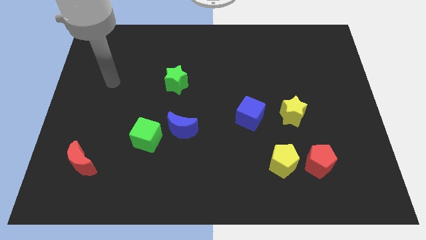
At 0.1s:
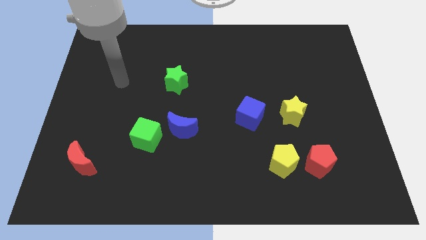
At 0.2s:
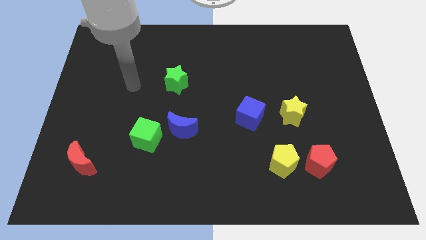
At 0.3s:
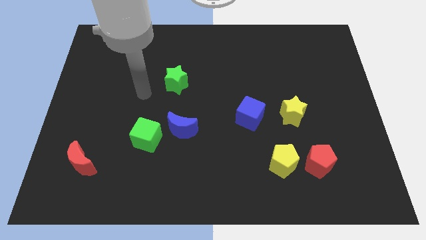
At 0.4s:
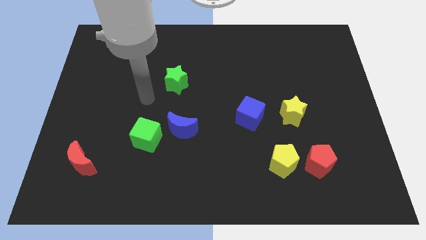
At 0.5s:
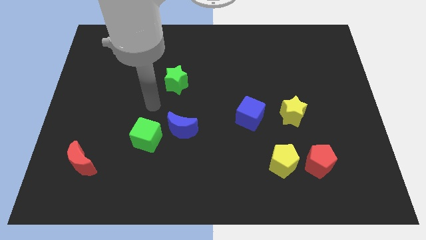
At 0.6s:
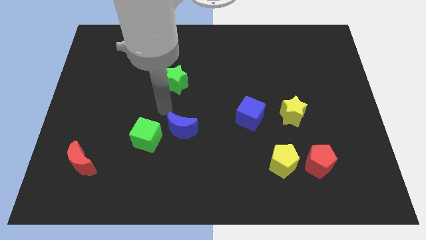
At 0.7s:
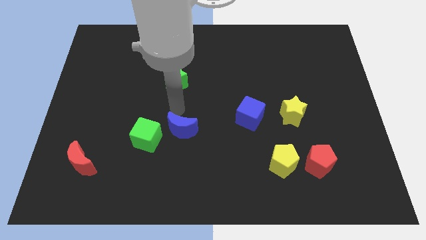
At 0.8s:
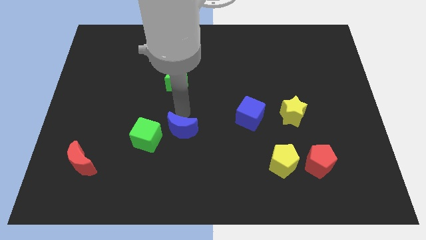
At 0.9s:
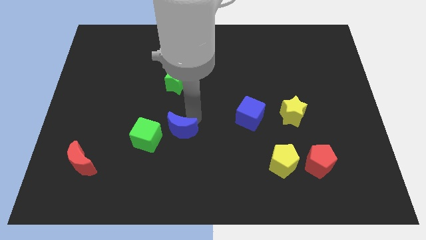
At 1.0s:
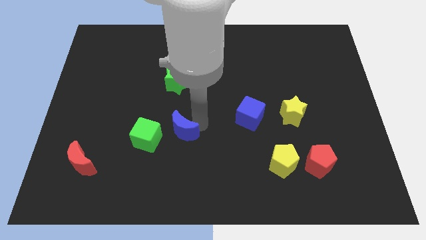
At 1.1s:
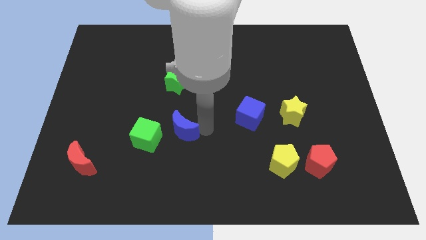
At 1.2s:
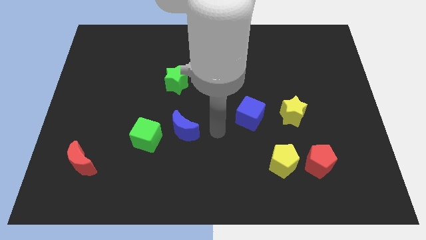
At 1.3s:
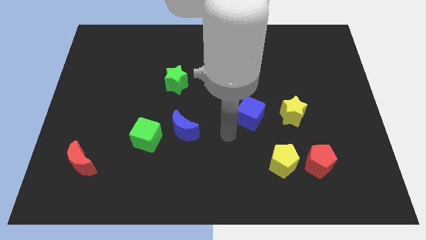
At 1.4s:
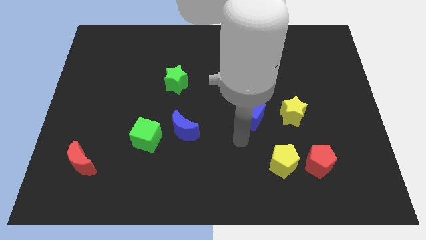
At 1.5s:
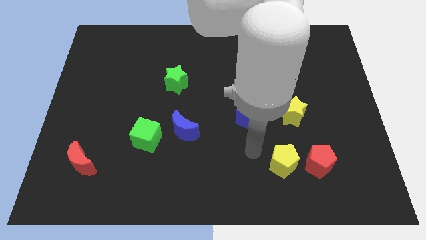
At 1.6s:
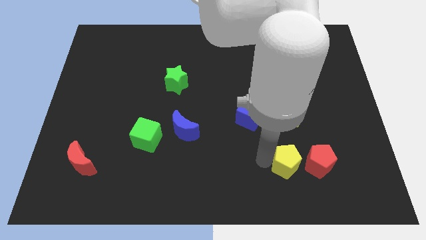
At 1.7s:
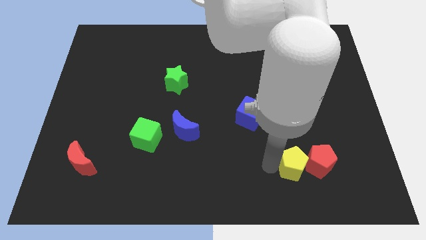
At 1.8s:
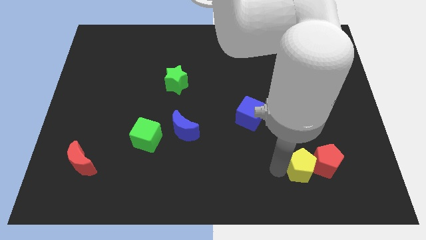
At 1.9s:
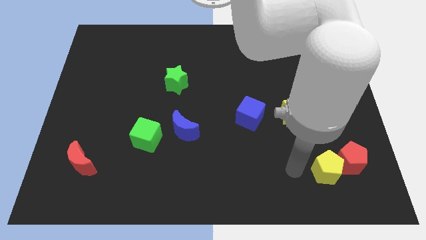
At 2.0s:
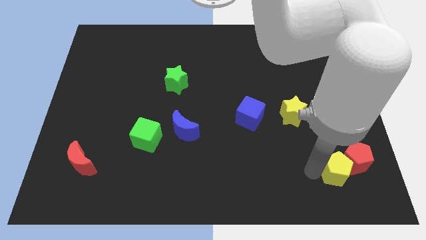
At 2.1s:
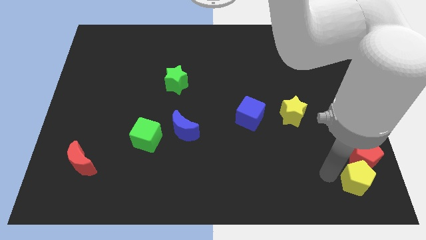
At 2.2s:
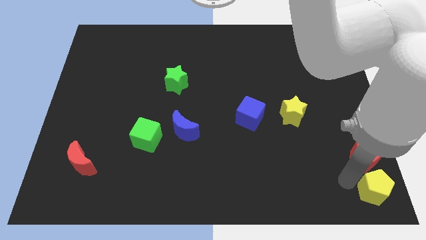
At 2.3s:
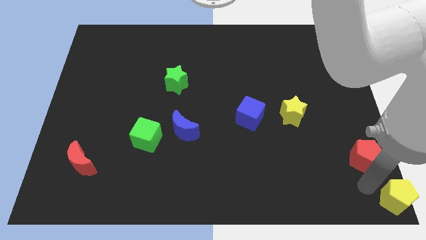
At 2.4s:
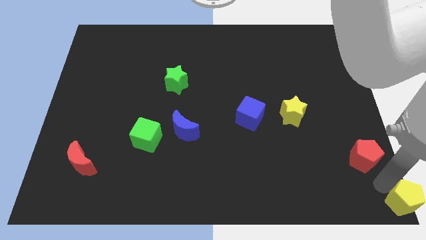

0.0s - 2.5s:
pull the red pentagon apart from the yellow pentagon

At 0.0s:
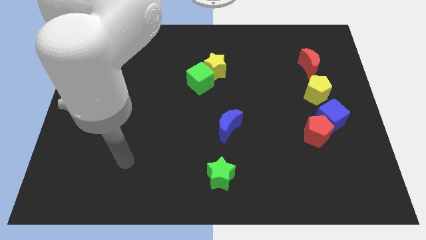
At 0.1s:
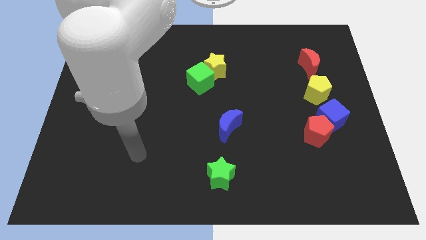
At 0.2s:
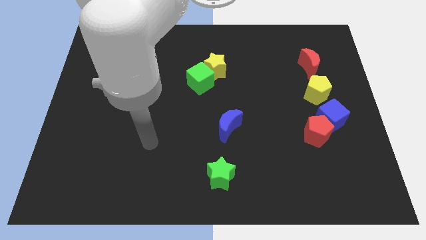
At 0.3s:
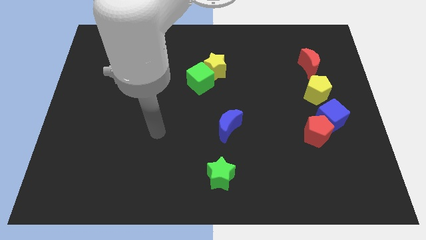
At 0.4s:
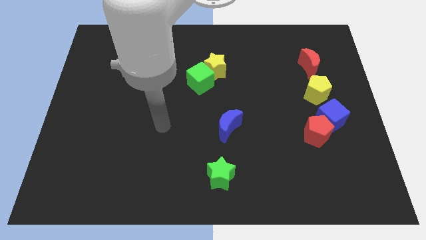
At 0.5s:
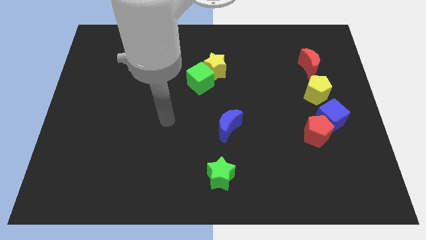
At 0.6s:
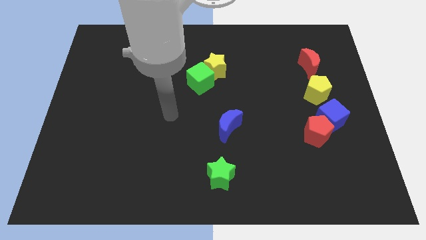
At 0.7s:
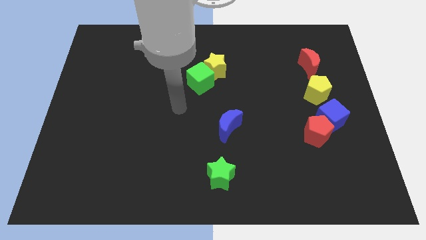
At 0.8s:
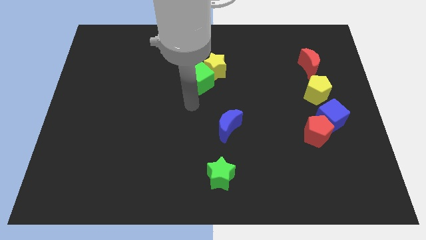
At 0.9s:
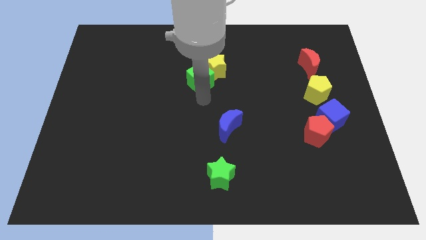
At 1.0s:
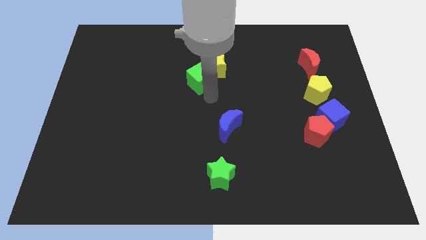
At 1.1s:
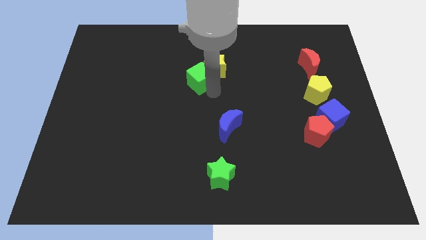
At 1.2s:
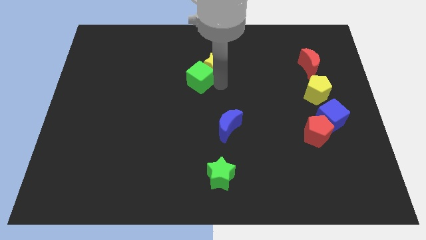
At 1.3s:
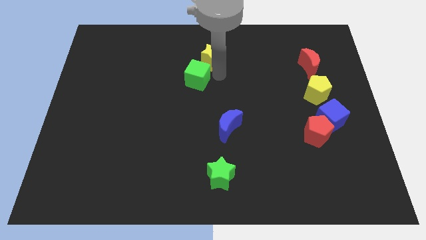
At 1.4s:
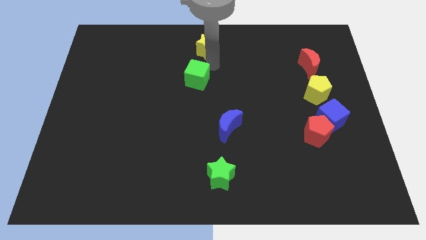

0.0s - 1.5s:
pull the green cube apart from the yellow star

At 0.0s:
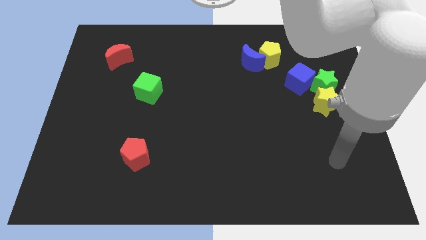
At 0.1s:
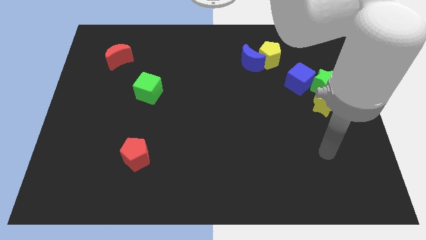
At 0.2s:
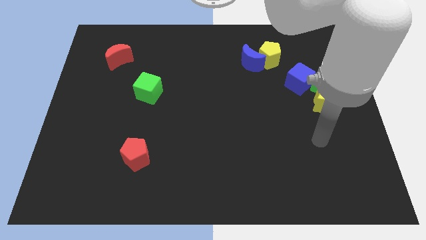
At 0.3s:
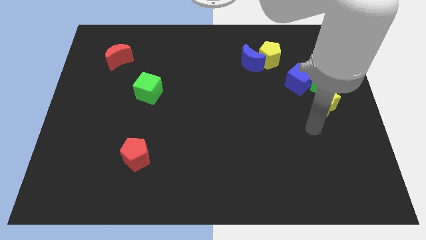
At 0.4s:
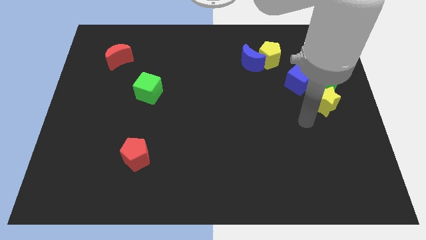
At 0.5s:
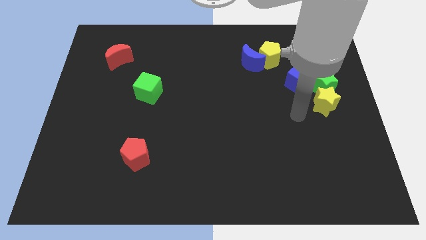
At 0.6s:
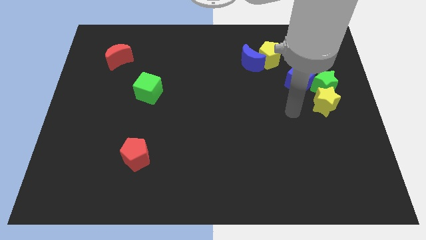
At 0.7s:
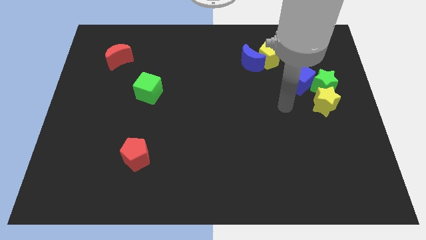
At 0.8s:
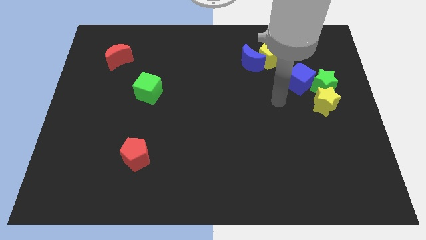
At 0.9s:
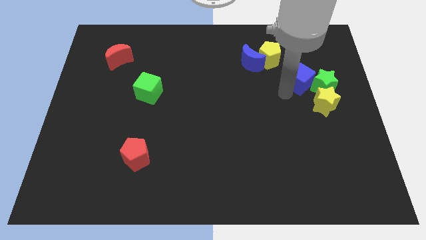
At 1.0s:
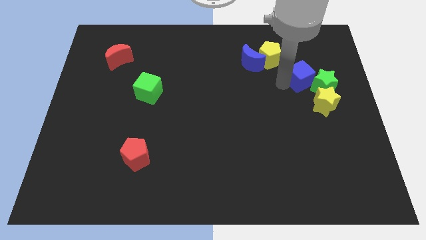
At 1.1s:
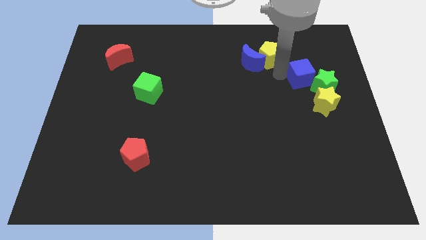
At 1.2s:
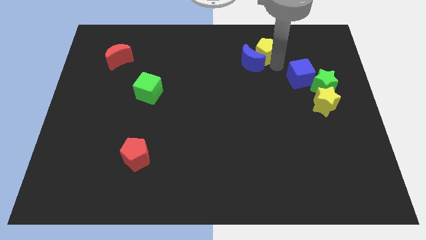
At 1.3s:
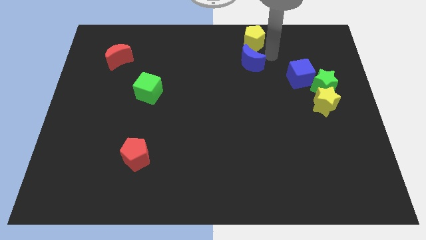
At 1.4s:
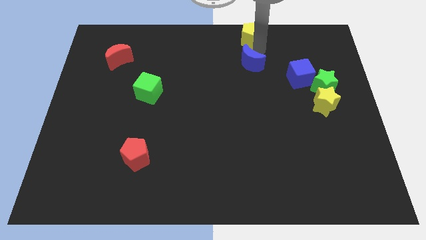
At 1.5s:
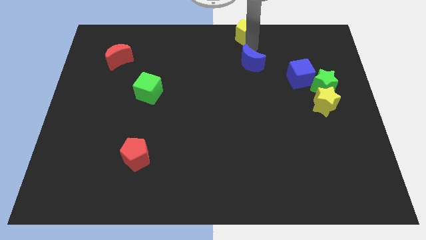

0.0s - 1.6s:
move the blue moon away from the yellow pentagon

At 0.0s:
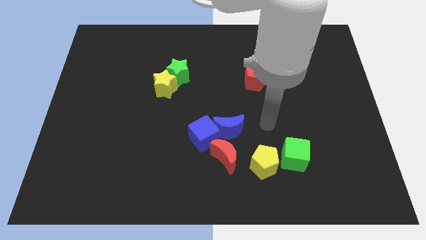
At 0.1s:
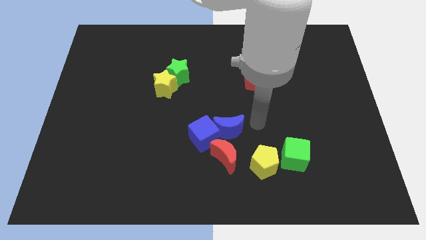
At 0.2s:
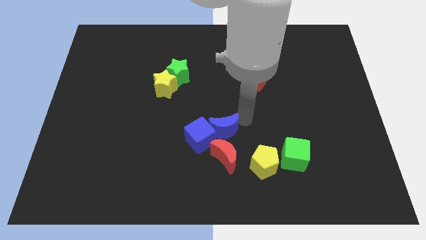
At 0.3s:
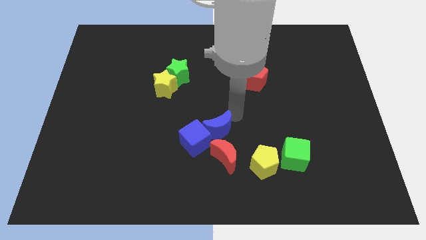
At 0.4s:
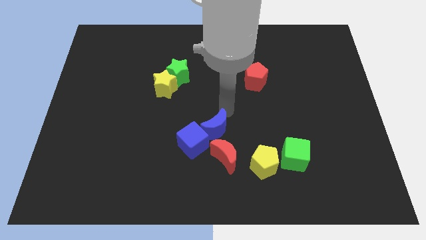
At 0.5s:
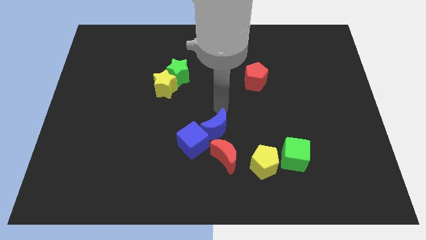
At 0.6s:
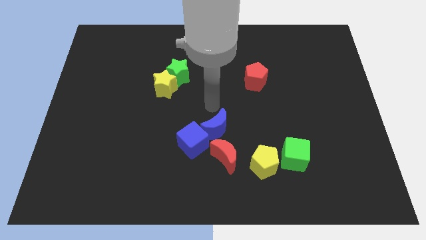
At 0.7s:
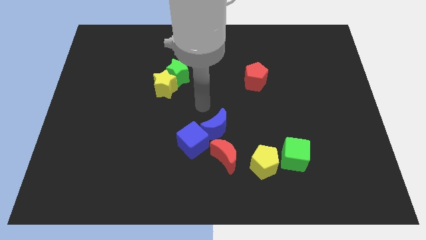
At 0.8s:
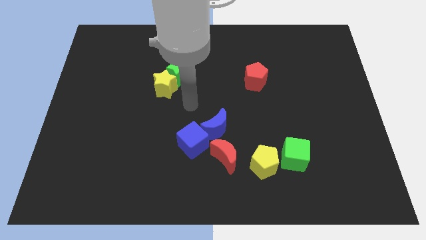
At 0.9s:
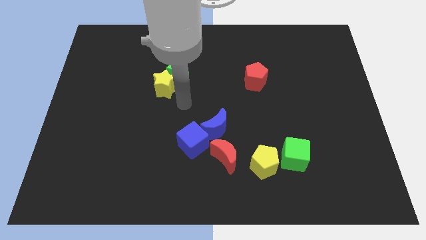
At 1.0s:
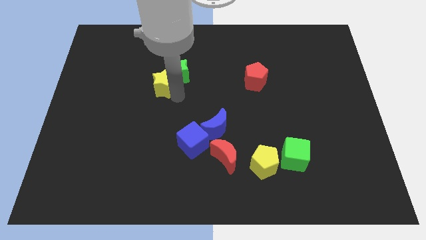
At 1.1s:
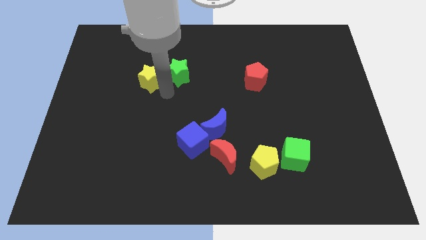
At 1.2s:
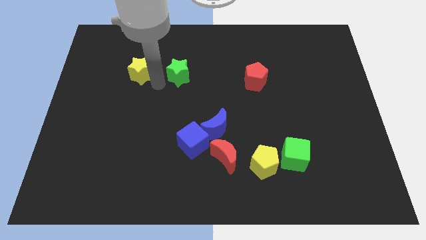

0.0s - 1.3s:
move the green star away from the yellow star

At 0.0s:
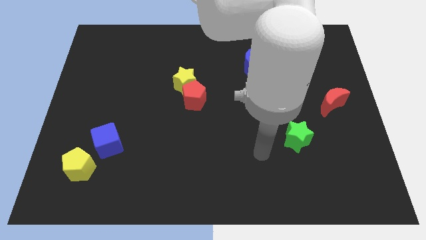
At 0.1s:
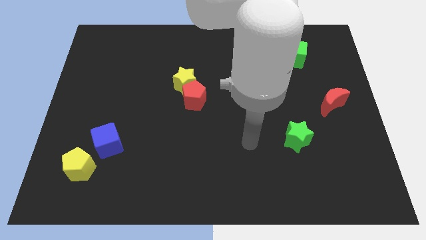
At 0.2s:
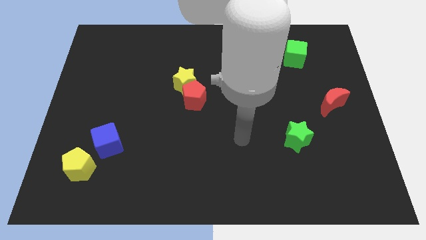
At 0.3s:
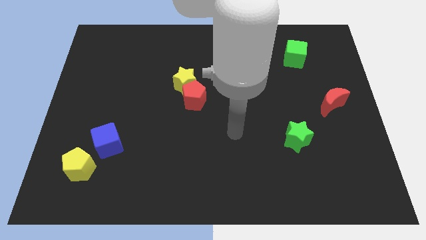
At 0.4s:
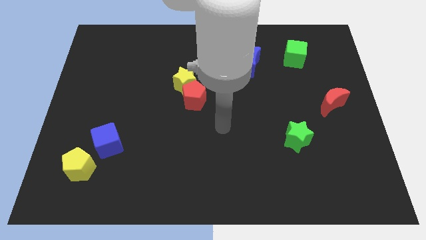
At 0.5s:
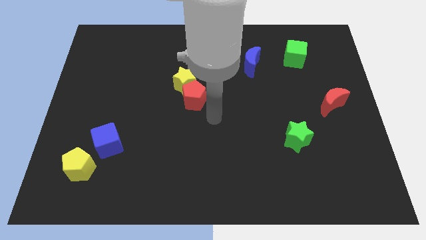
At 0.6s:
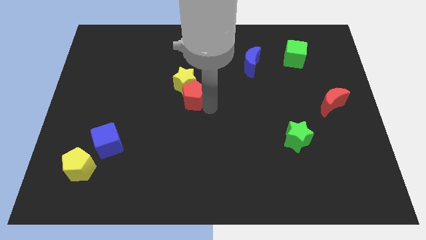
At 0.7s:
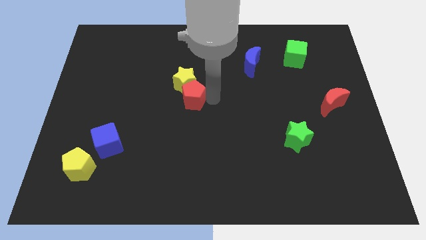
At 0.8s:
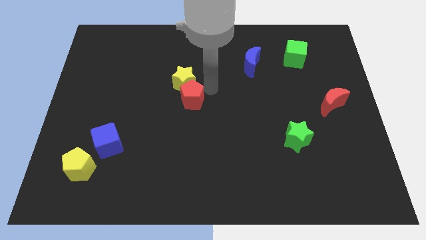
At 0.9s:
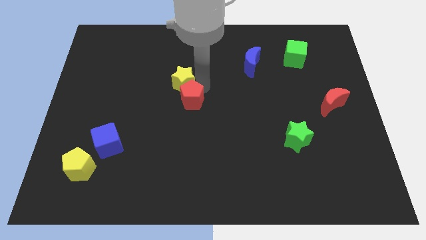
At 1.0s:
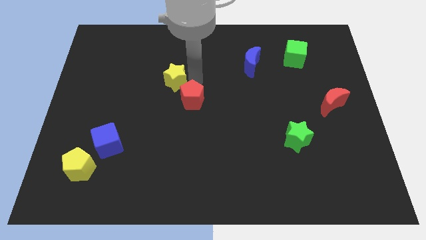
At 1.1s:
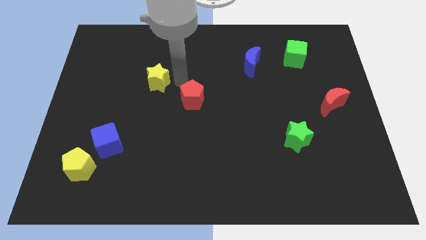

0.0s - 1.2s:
separate the red pentagon from the yellow star

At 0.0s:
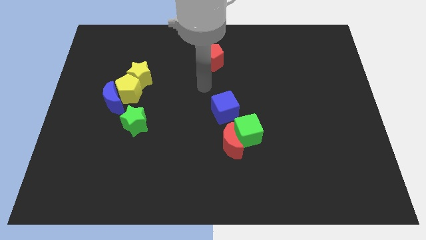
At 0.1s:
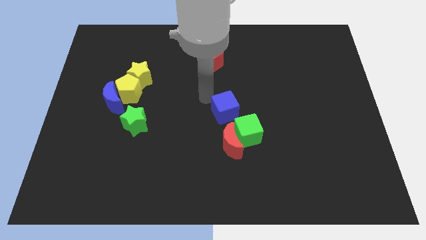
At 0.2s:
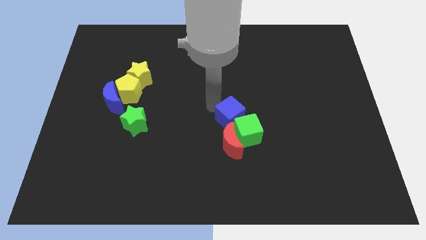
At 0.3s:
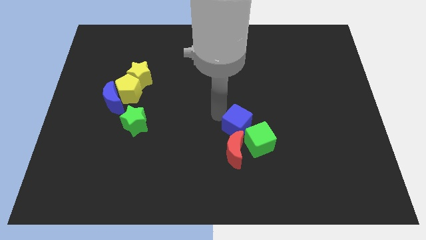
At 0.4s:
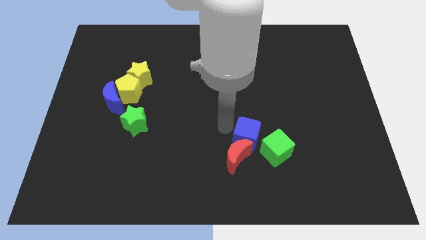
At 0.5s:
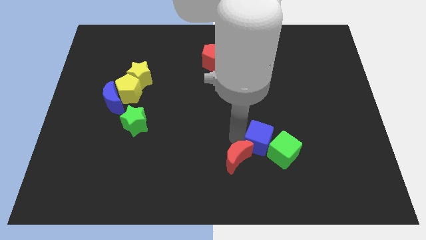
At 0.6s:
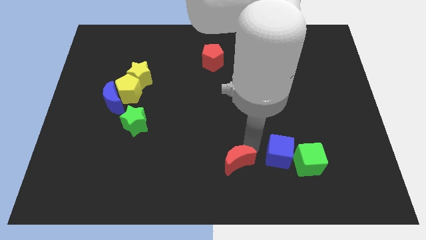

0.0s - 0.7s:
separate the green cube from the red moon and blue cube

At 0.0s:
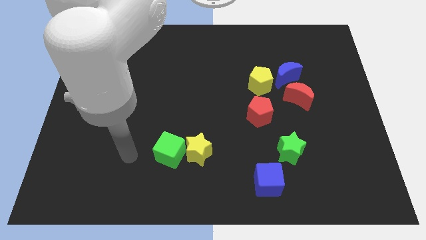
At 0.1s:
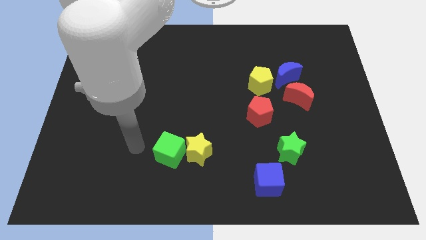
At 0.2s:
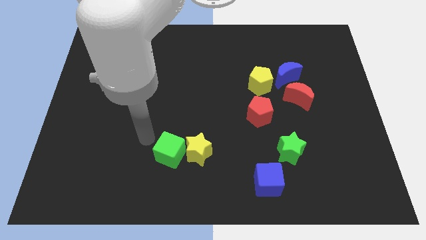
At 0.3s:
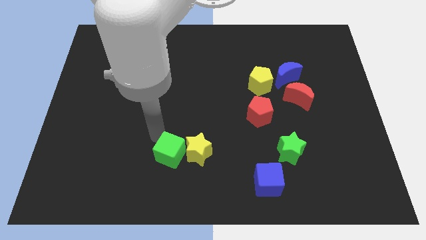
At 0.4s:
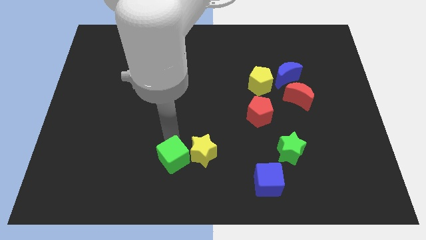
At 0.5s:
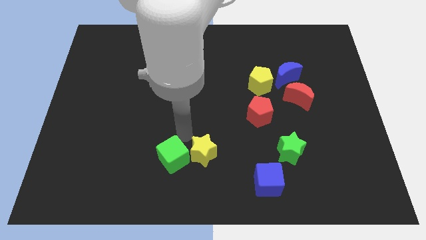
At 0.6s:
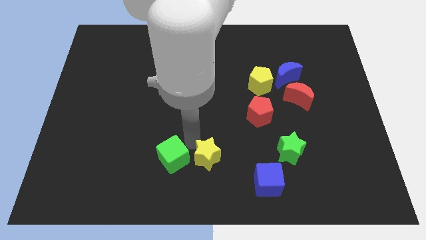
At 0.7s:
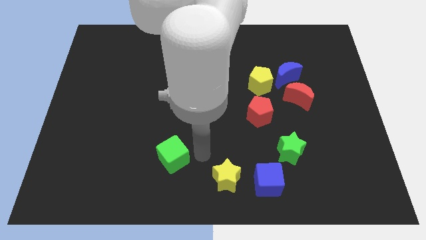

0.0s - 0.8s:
move the green cube away from the yellow star
